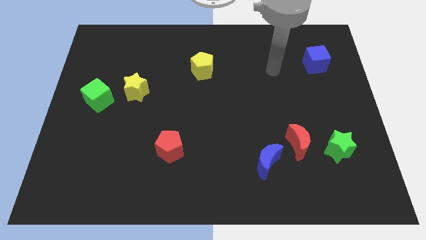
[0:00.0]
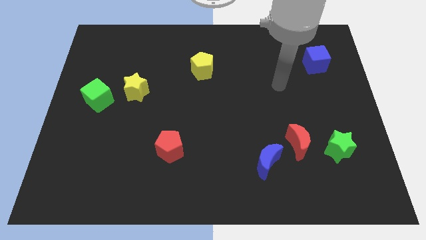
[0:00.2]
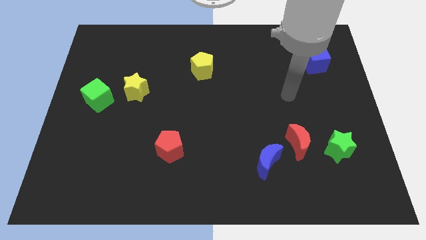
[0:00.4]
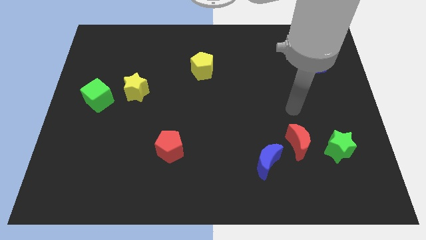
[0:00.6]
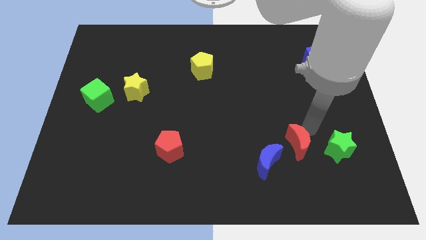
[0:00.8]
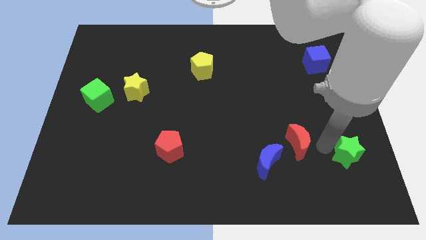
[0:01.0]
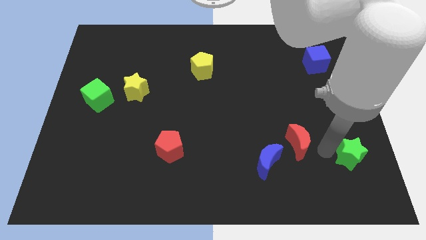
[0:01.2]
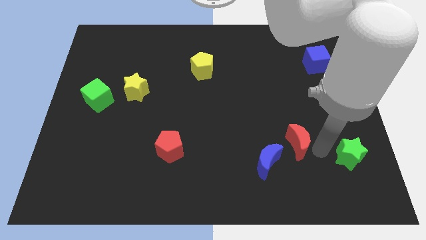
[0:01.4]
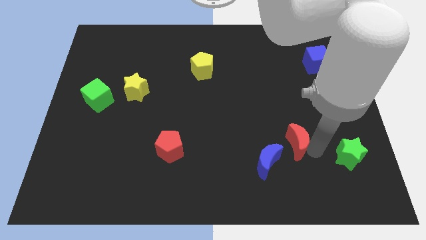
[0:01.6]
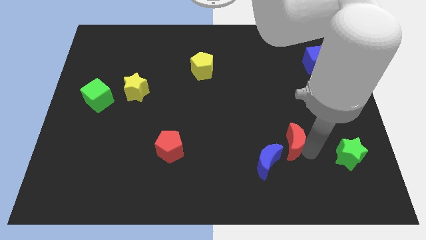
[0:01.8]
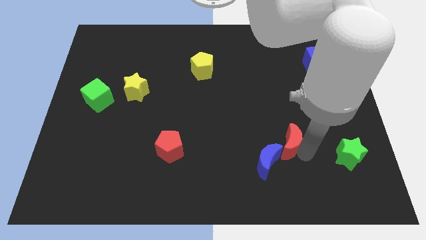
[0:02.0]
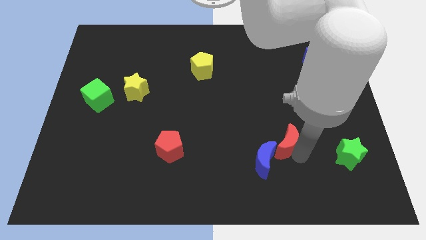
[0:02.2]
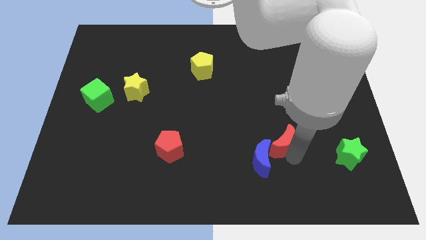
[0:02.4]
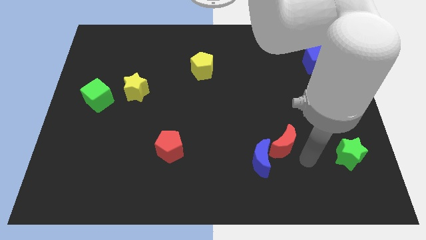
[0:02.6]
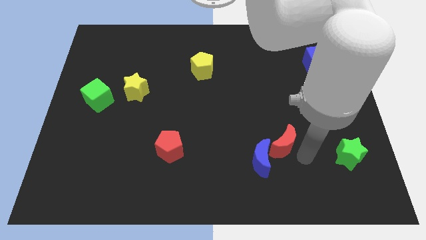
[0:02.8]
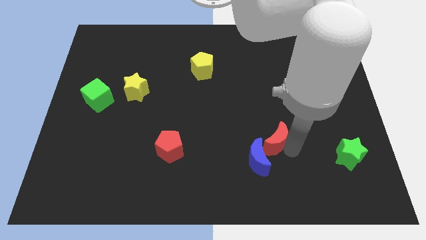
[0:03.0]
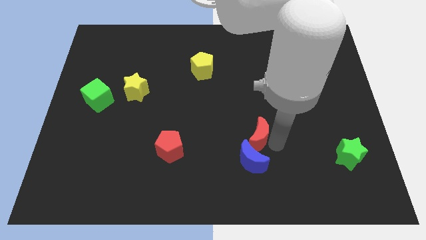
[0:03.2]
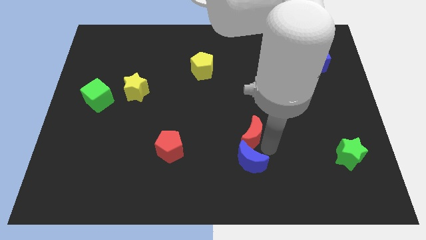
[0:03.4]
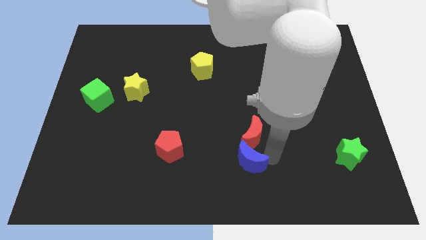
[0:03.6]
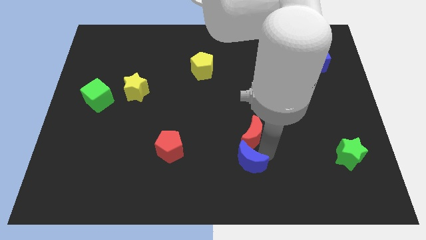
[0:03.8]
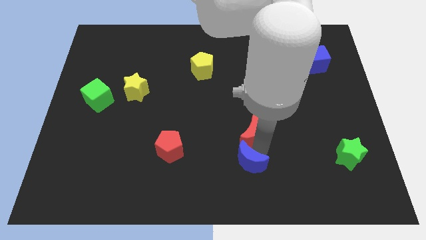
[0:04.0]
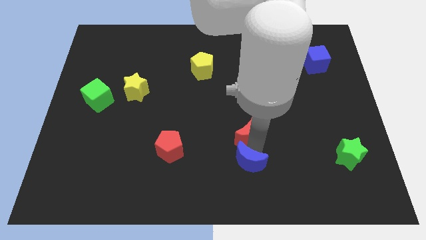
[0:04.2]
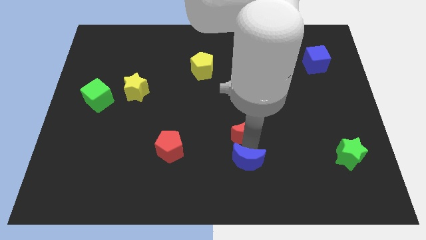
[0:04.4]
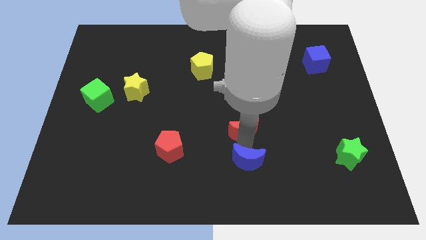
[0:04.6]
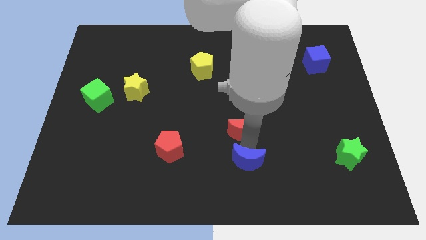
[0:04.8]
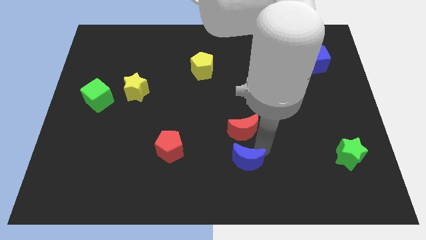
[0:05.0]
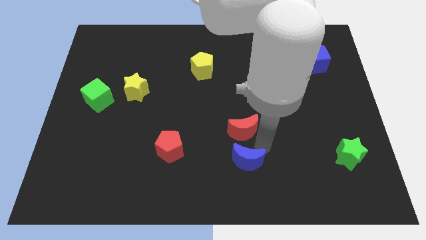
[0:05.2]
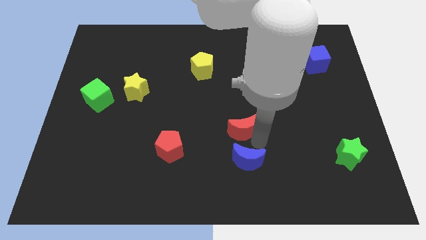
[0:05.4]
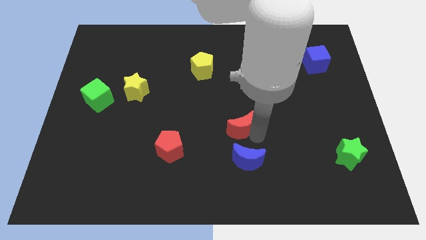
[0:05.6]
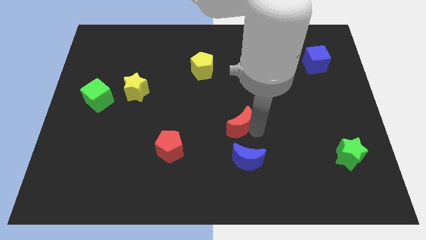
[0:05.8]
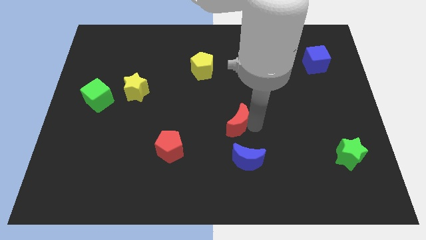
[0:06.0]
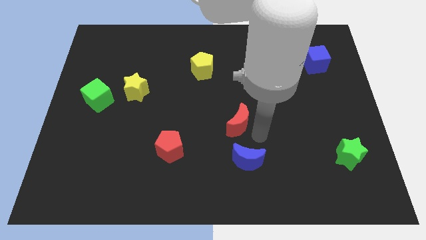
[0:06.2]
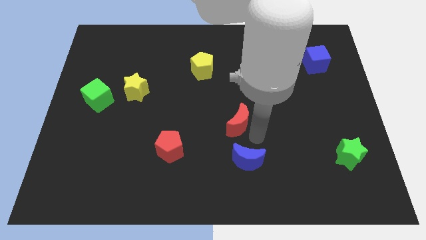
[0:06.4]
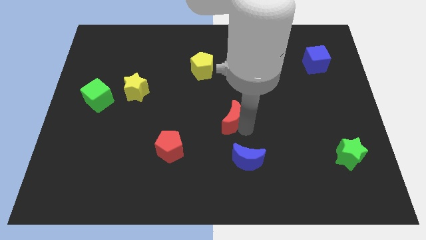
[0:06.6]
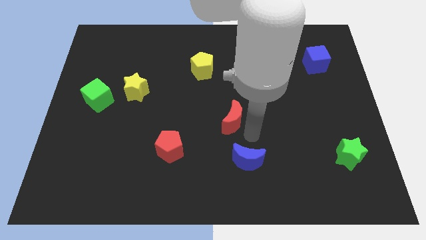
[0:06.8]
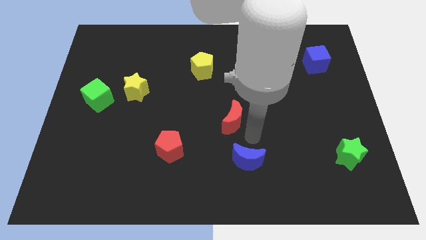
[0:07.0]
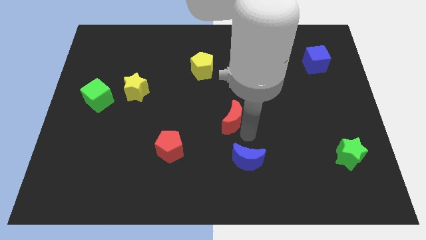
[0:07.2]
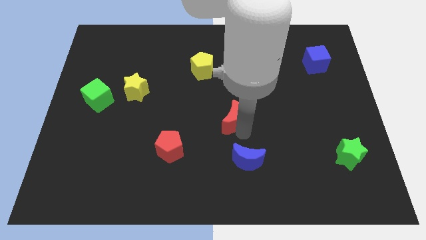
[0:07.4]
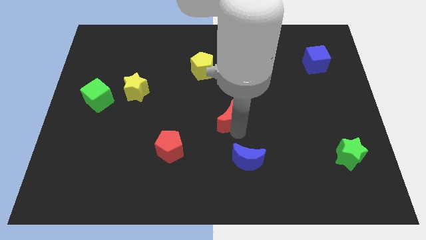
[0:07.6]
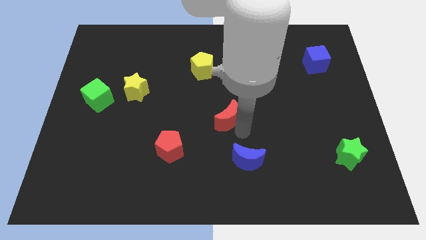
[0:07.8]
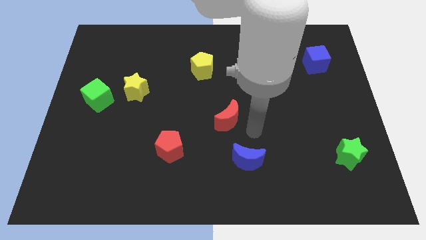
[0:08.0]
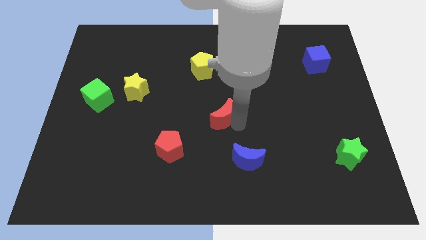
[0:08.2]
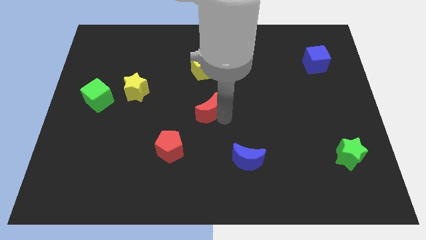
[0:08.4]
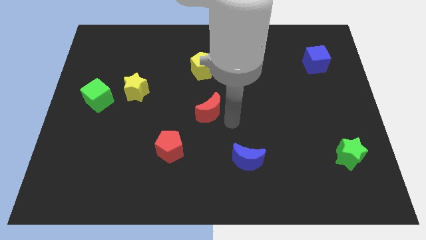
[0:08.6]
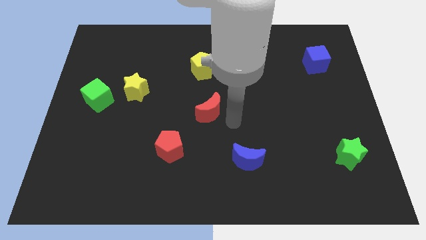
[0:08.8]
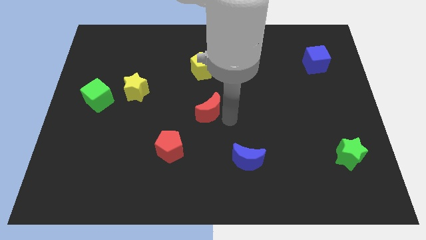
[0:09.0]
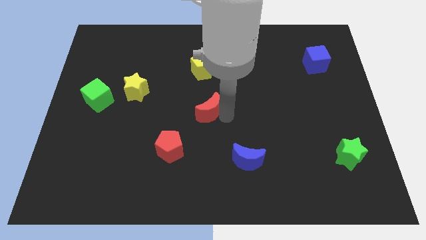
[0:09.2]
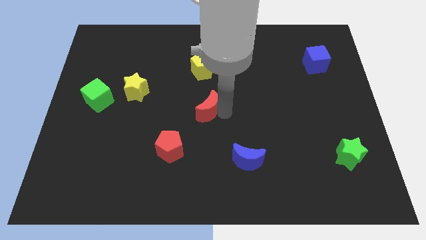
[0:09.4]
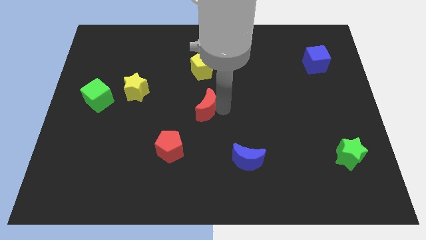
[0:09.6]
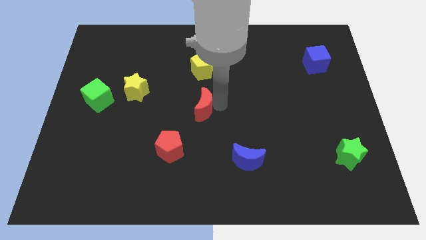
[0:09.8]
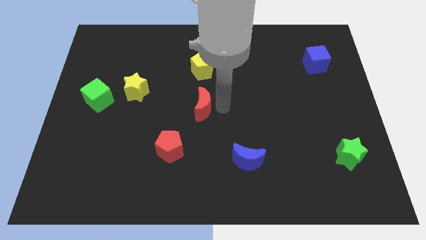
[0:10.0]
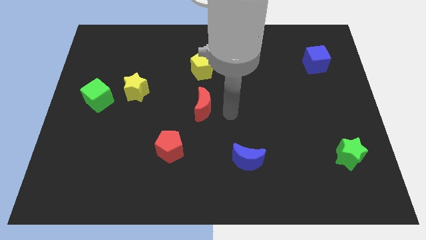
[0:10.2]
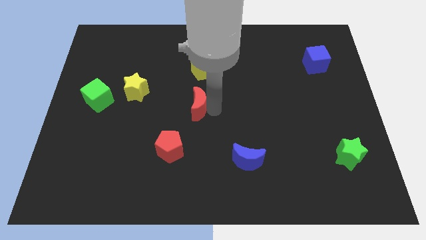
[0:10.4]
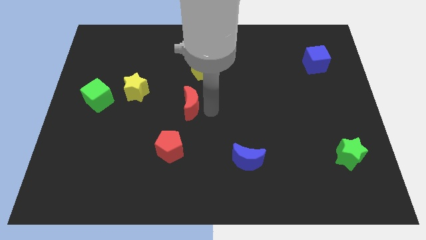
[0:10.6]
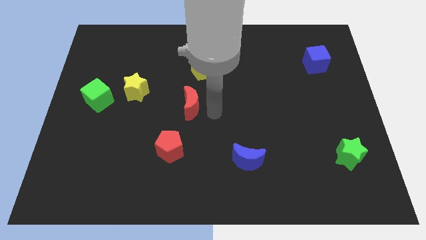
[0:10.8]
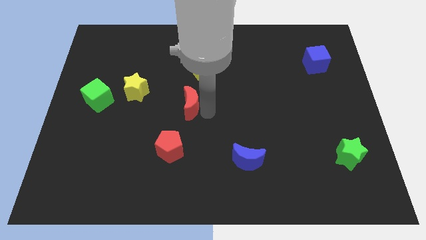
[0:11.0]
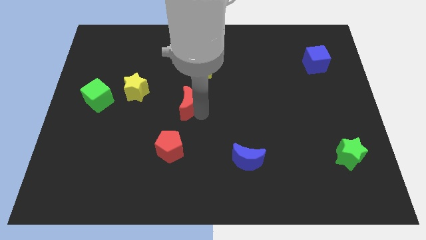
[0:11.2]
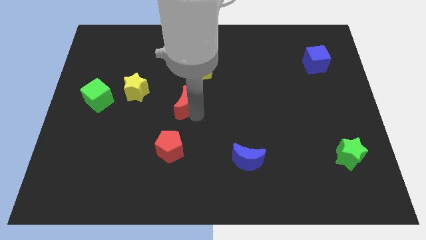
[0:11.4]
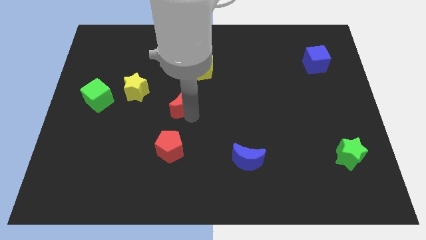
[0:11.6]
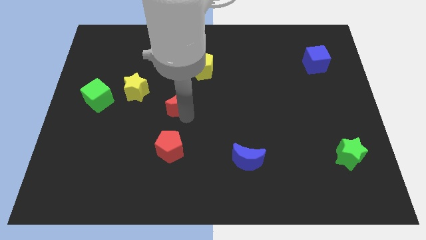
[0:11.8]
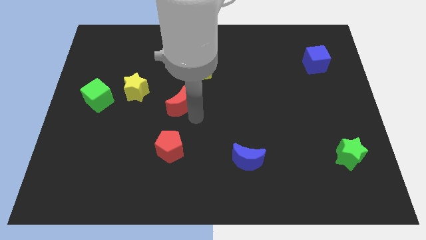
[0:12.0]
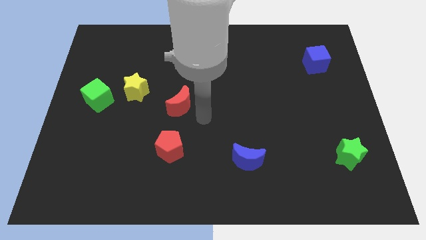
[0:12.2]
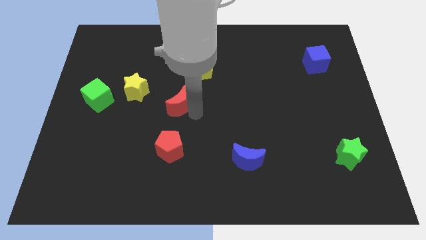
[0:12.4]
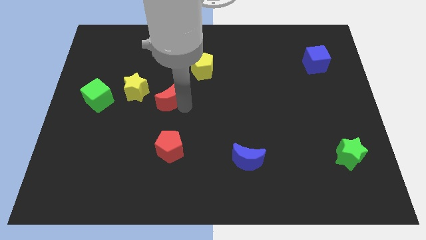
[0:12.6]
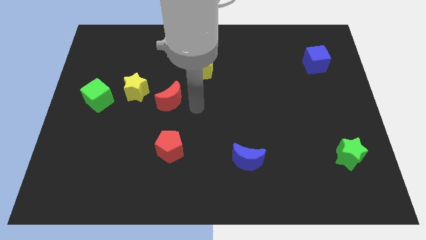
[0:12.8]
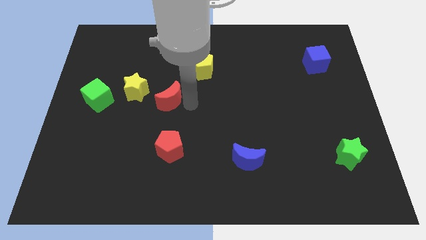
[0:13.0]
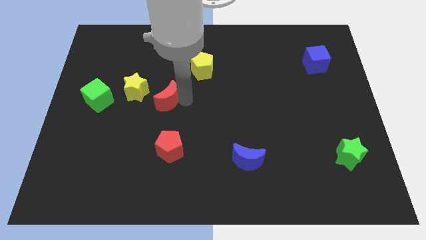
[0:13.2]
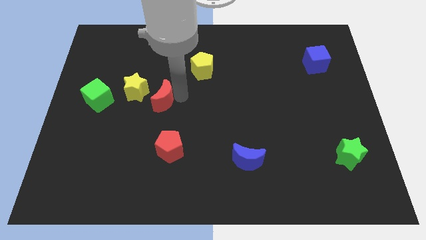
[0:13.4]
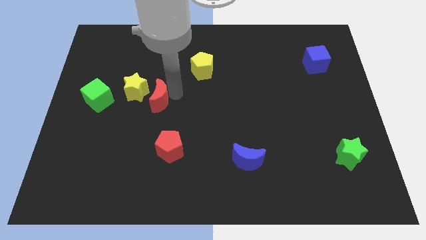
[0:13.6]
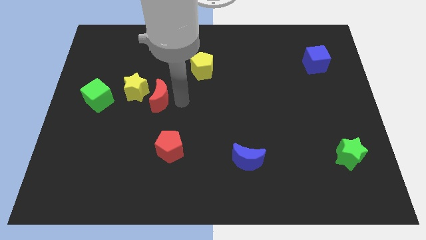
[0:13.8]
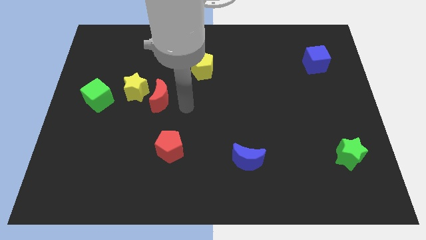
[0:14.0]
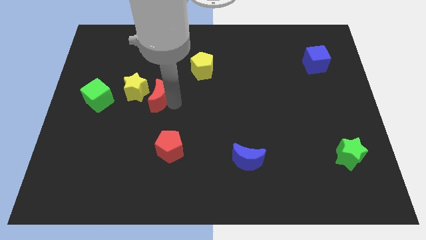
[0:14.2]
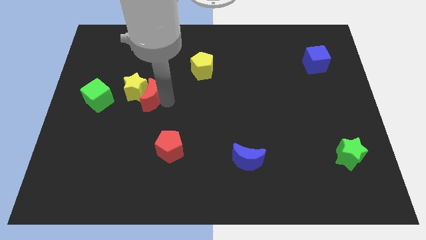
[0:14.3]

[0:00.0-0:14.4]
move the red moon to the yellow star
